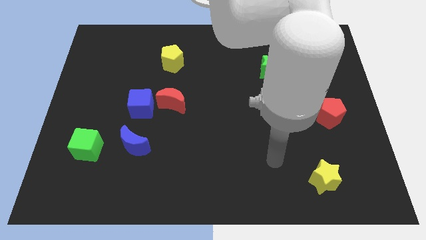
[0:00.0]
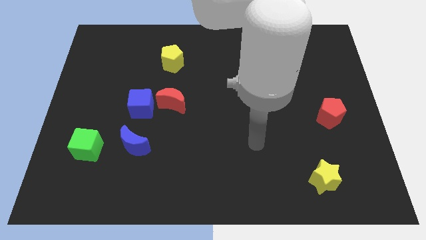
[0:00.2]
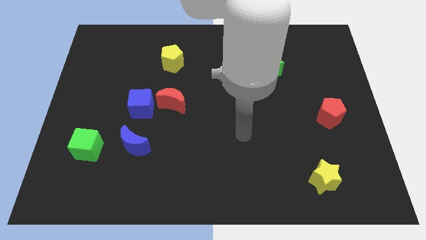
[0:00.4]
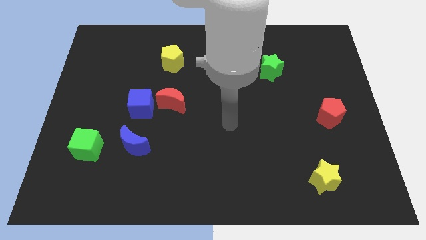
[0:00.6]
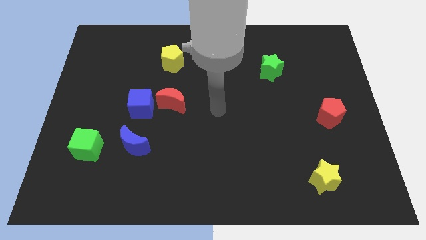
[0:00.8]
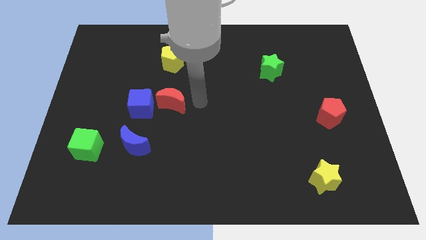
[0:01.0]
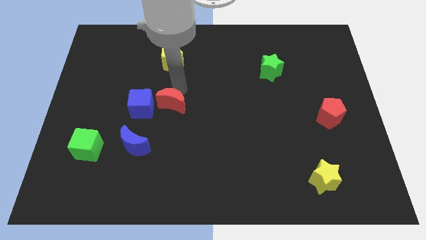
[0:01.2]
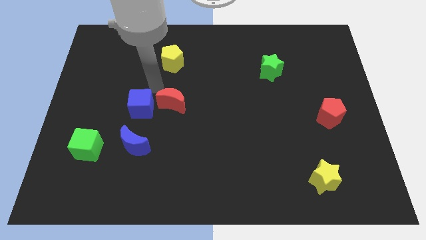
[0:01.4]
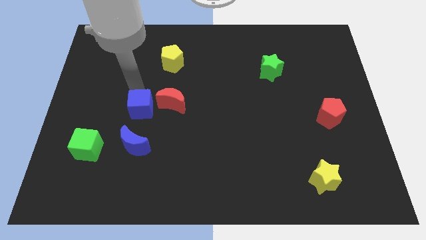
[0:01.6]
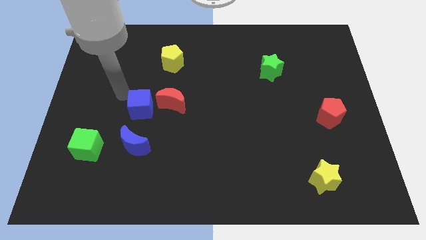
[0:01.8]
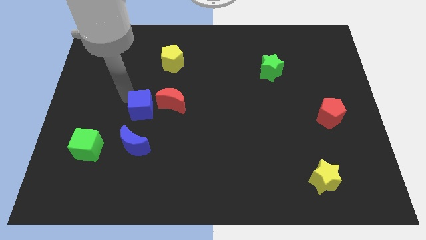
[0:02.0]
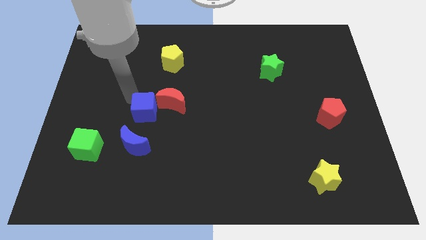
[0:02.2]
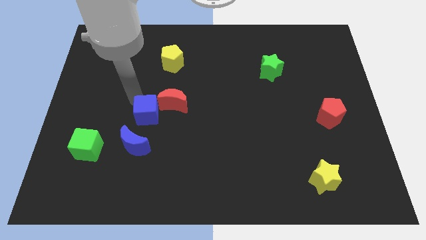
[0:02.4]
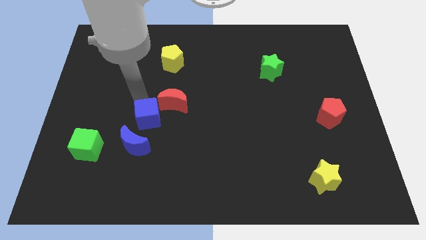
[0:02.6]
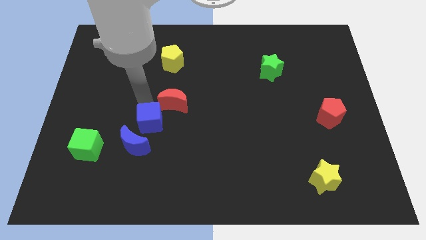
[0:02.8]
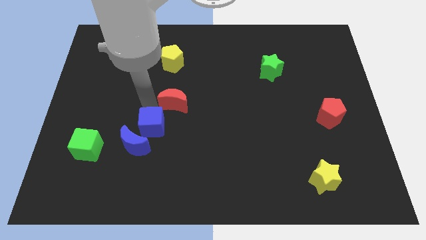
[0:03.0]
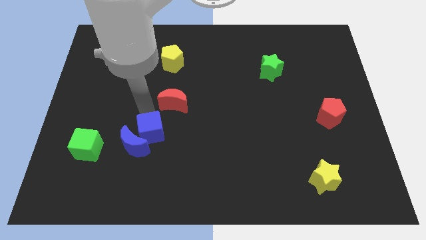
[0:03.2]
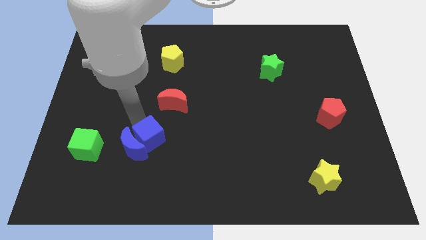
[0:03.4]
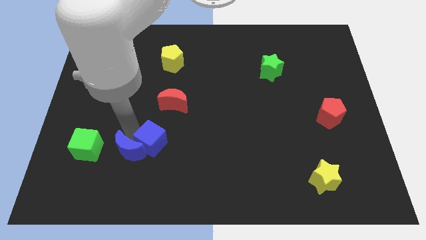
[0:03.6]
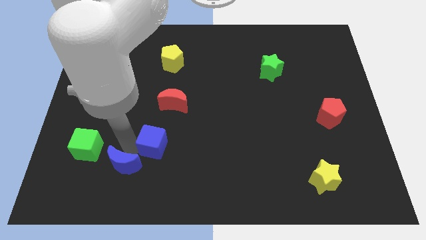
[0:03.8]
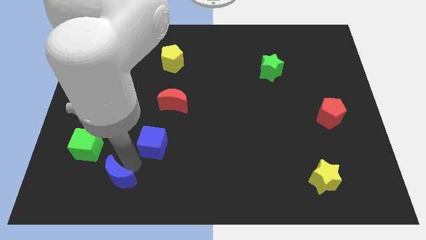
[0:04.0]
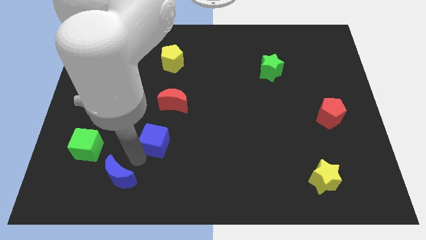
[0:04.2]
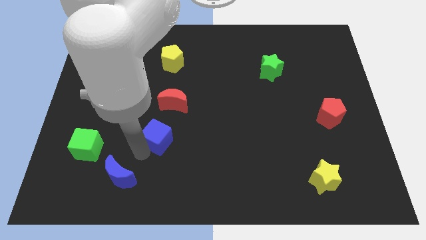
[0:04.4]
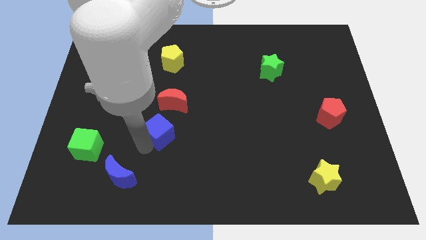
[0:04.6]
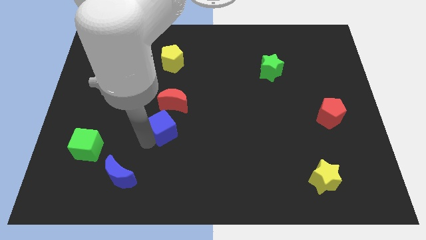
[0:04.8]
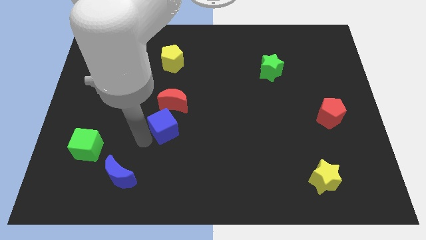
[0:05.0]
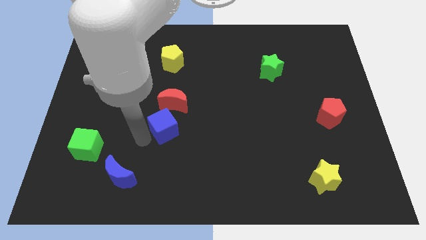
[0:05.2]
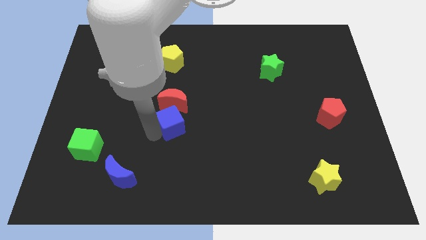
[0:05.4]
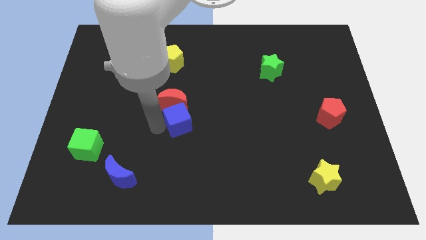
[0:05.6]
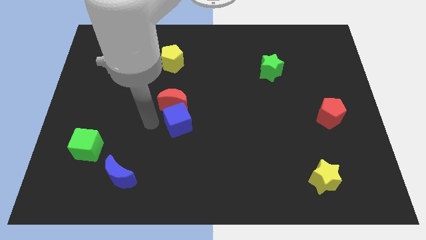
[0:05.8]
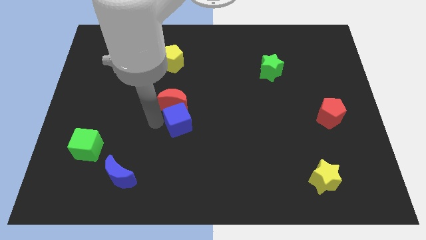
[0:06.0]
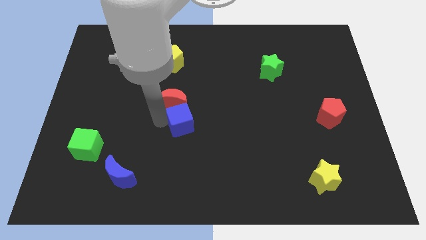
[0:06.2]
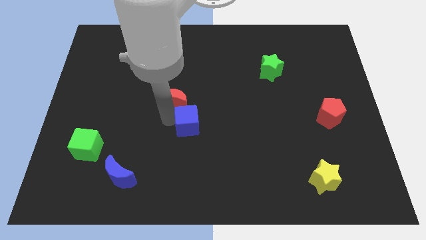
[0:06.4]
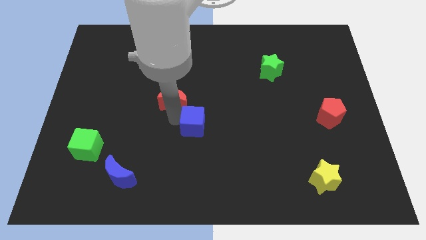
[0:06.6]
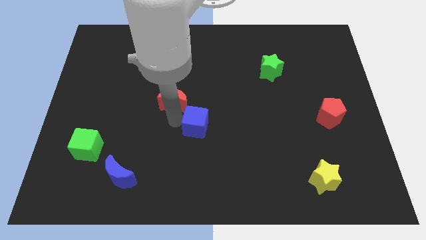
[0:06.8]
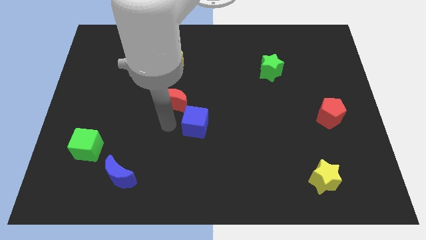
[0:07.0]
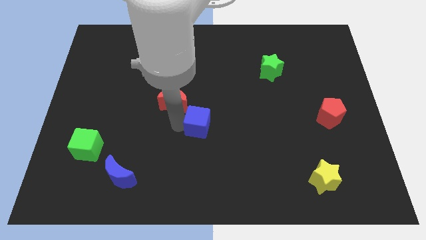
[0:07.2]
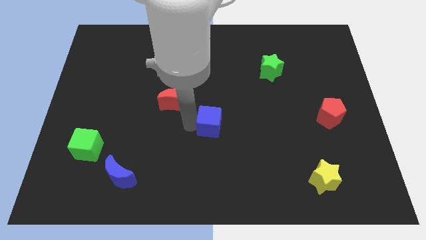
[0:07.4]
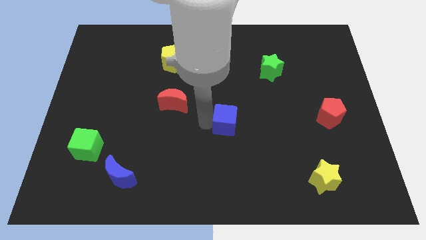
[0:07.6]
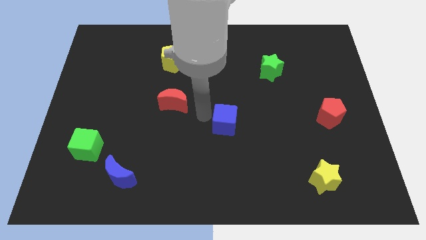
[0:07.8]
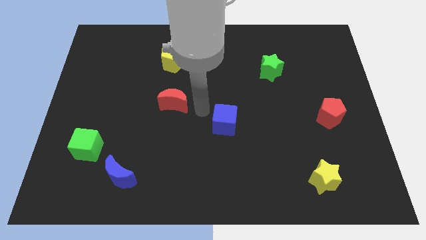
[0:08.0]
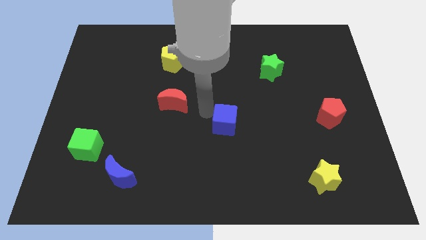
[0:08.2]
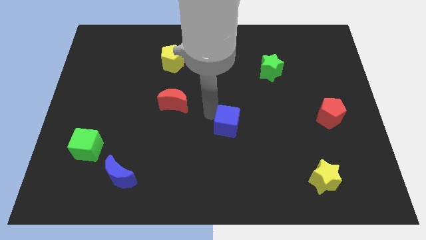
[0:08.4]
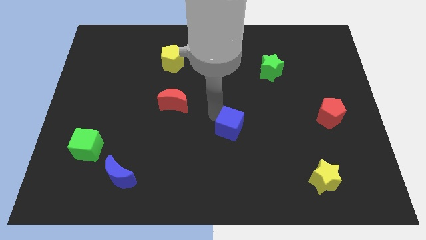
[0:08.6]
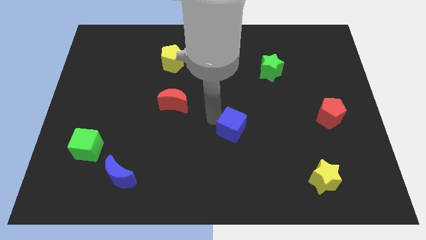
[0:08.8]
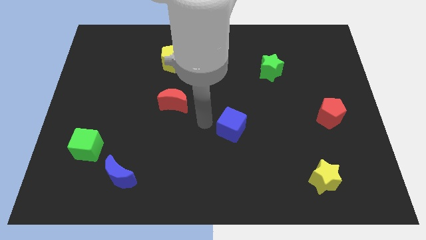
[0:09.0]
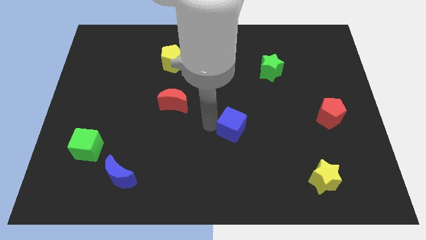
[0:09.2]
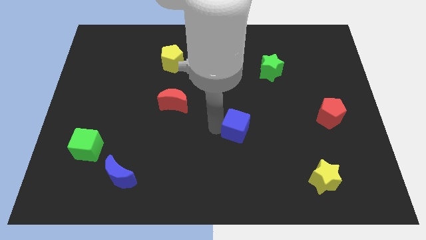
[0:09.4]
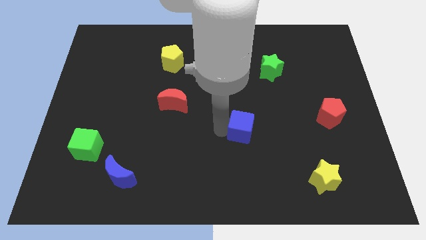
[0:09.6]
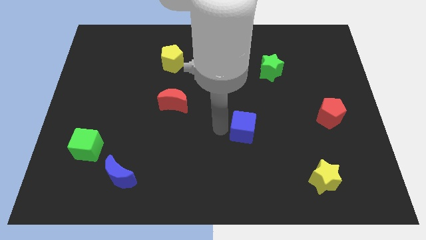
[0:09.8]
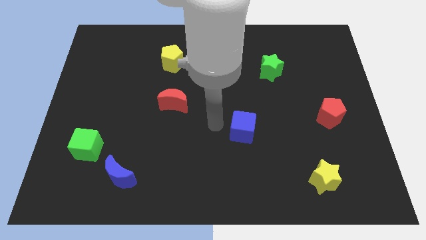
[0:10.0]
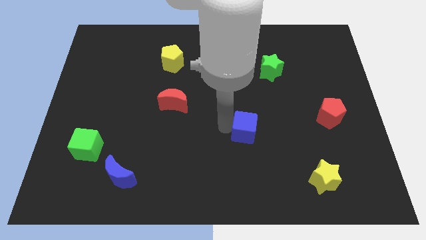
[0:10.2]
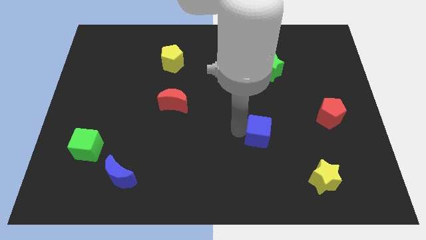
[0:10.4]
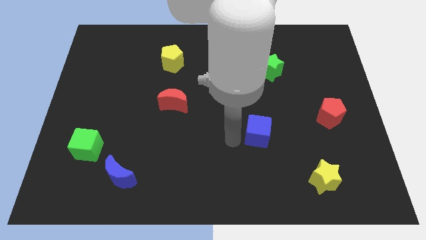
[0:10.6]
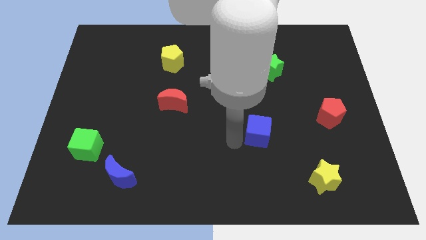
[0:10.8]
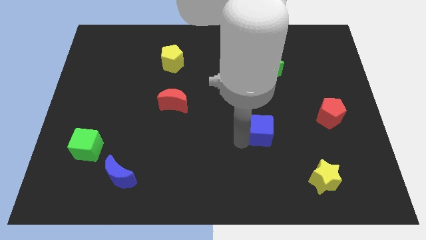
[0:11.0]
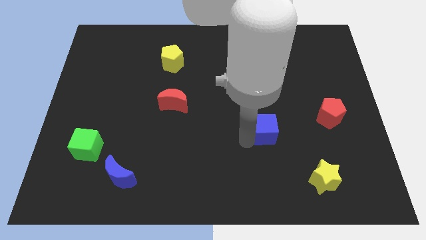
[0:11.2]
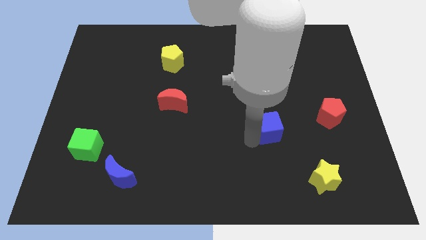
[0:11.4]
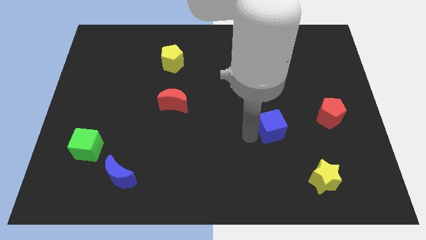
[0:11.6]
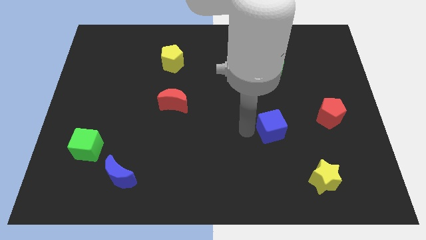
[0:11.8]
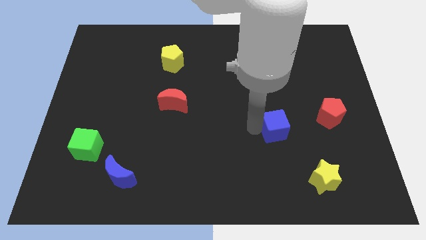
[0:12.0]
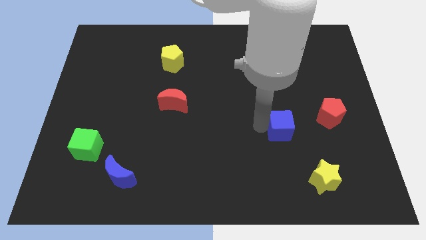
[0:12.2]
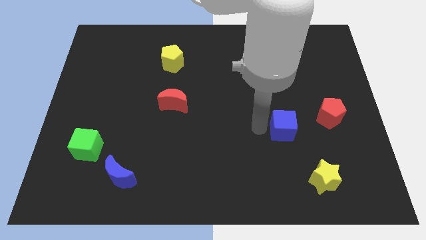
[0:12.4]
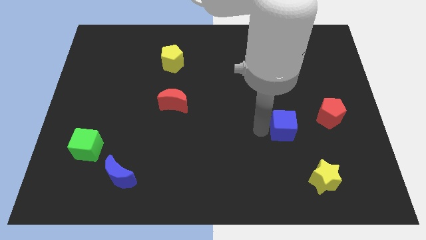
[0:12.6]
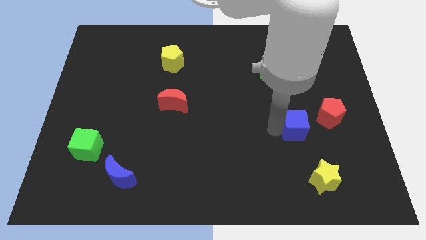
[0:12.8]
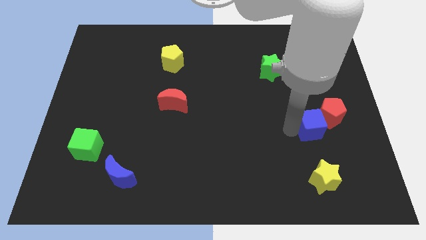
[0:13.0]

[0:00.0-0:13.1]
slide the blue cube close to the red pentagon

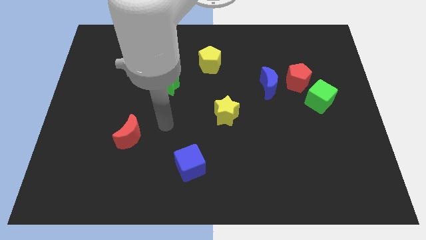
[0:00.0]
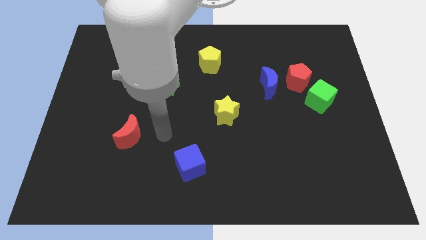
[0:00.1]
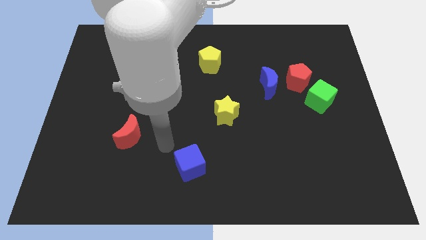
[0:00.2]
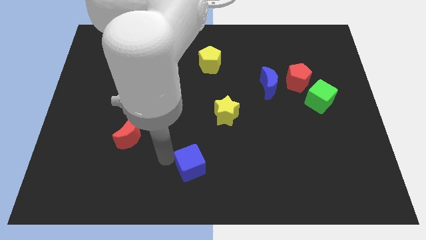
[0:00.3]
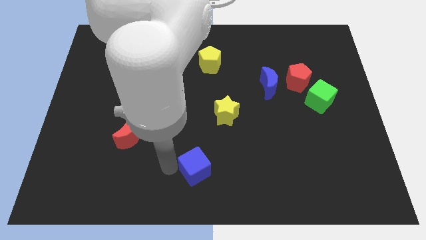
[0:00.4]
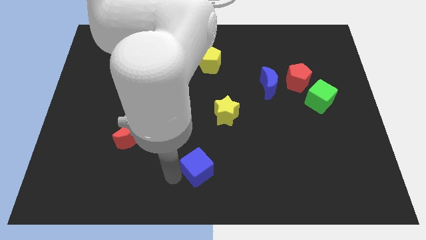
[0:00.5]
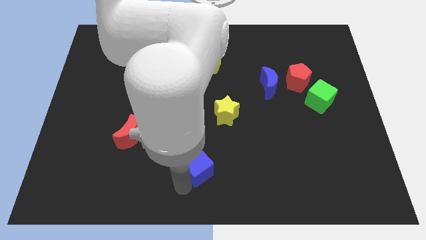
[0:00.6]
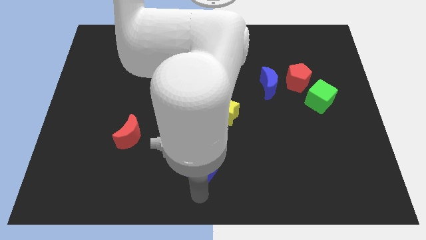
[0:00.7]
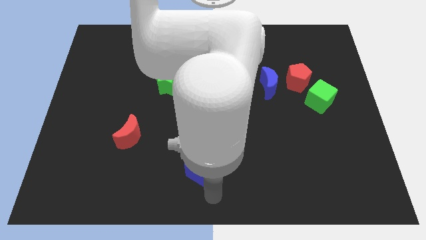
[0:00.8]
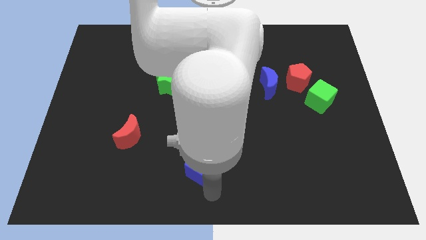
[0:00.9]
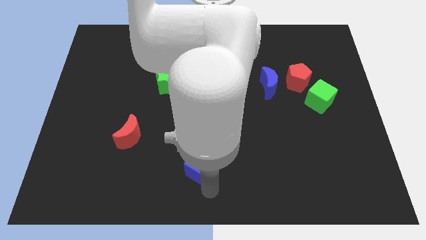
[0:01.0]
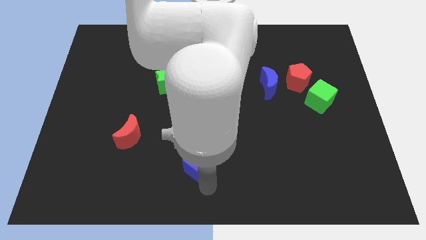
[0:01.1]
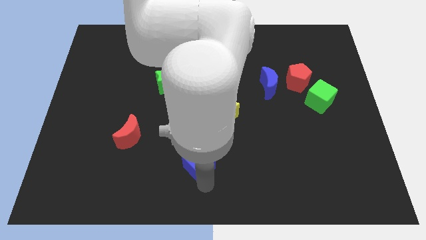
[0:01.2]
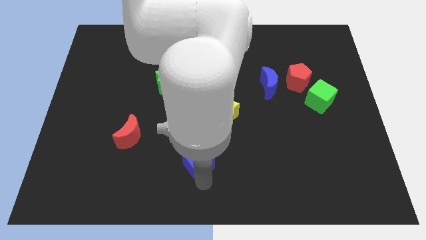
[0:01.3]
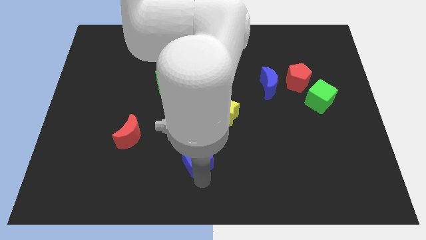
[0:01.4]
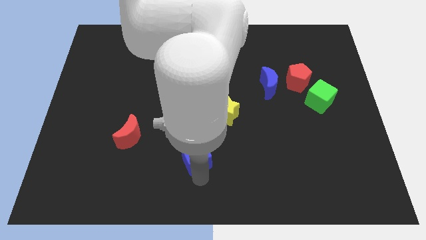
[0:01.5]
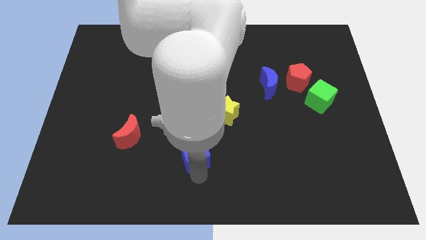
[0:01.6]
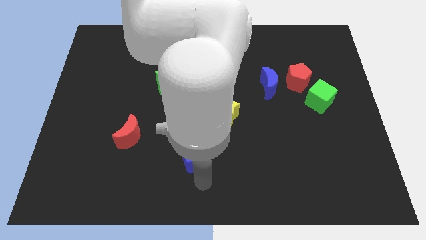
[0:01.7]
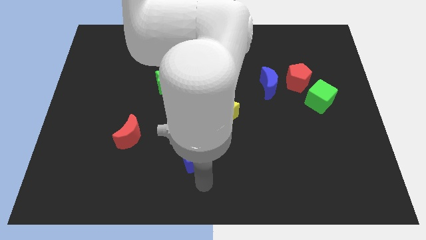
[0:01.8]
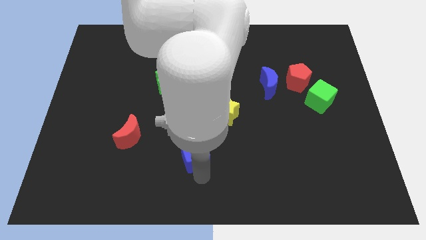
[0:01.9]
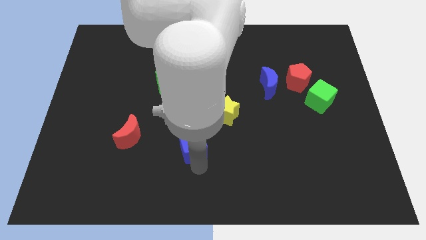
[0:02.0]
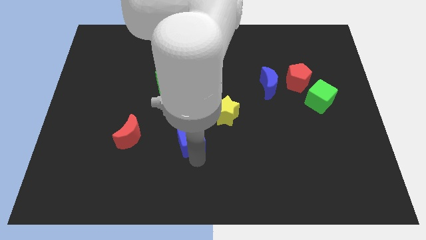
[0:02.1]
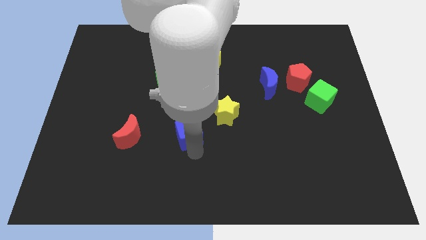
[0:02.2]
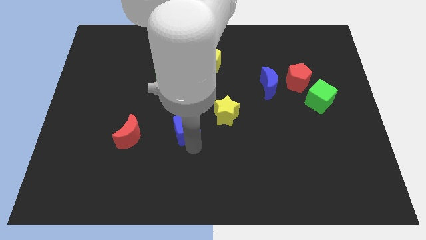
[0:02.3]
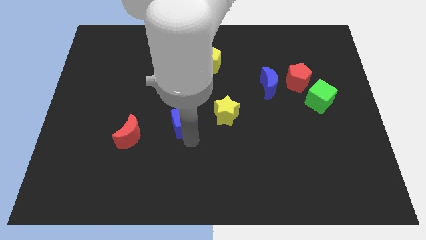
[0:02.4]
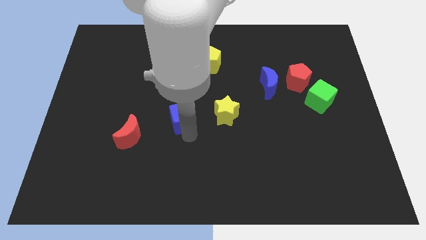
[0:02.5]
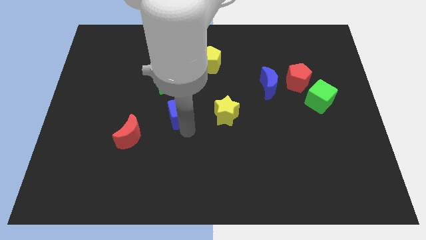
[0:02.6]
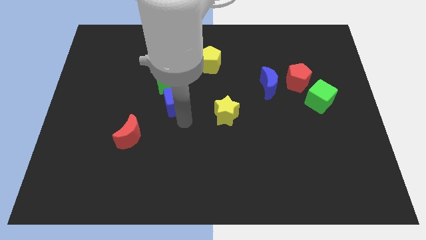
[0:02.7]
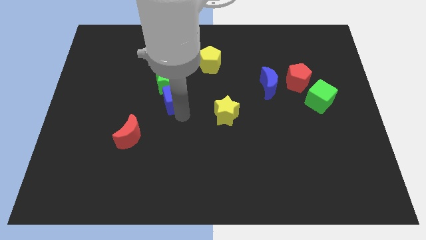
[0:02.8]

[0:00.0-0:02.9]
slide the blue cube towards the green star
